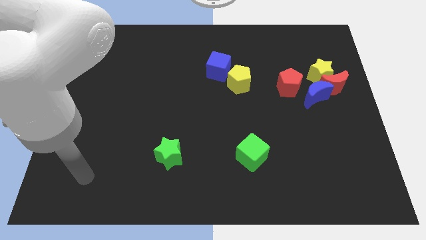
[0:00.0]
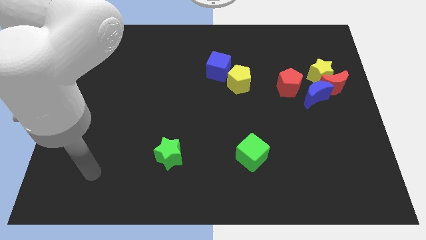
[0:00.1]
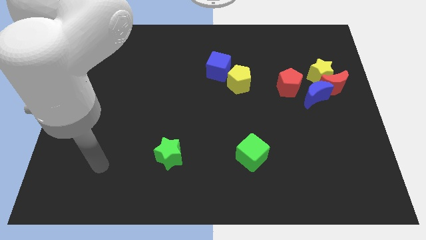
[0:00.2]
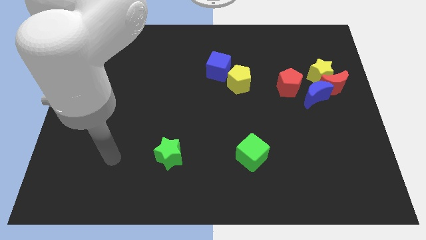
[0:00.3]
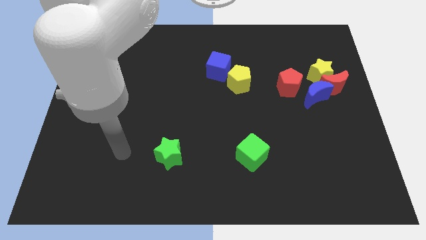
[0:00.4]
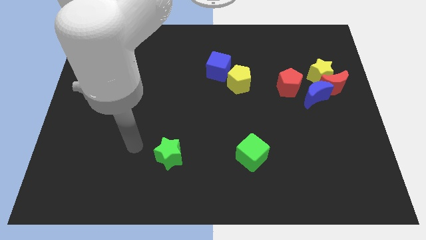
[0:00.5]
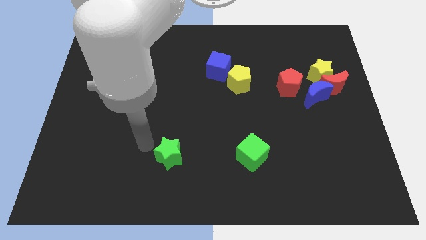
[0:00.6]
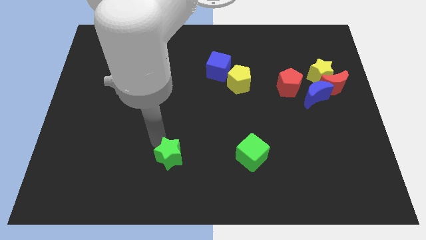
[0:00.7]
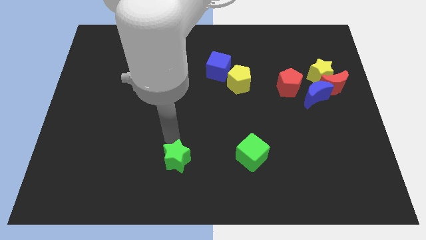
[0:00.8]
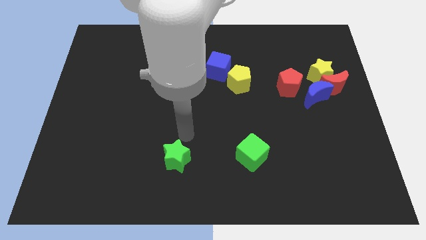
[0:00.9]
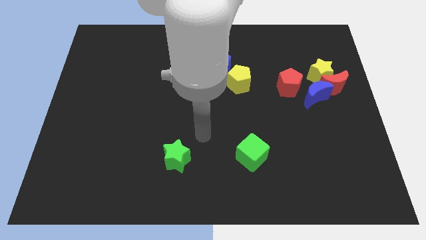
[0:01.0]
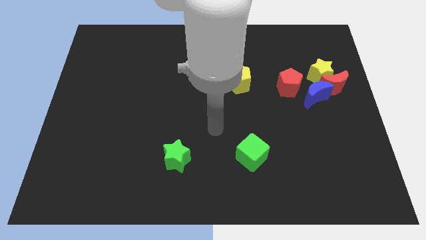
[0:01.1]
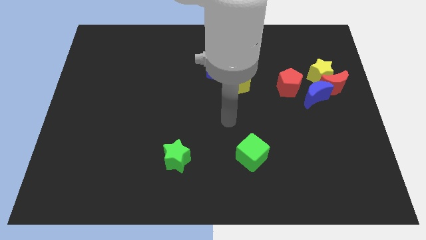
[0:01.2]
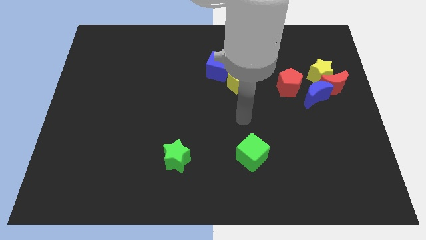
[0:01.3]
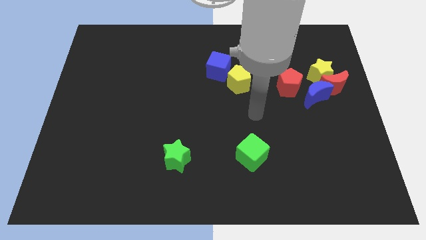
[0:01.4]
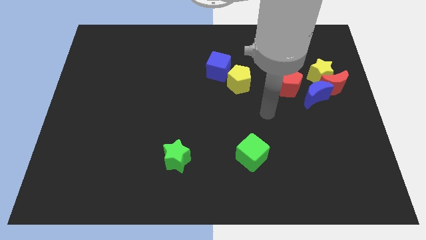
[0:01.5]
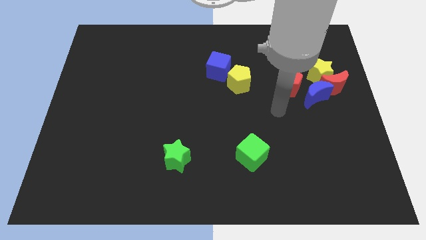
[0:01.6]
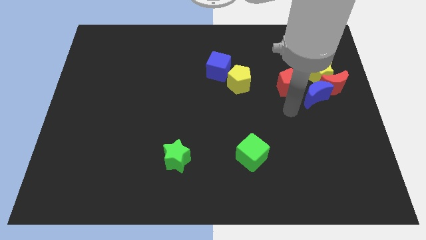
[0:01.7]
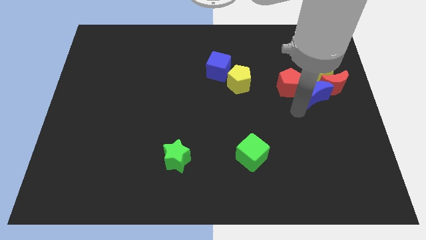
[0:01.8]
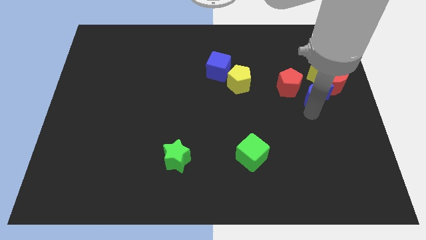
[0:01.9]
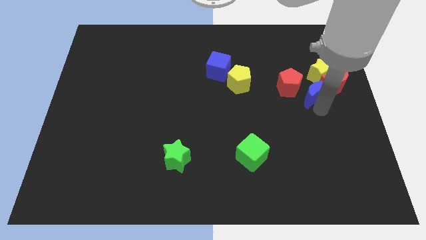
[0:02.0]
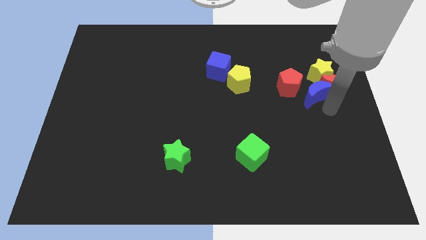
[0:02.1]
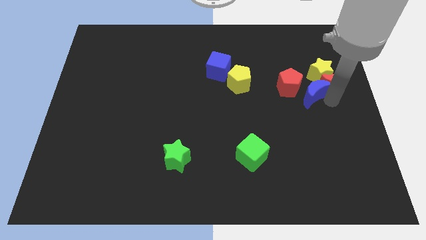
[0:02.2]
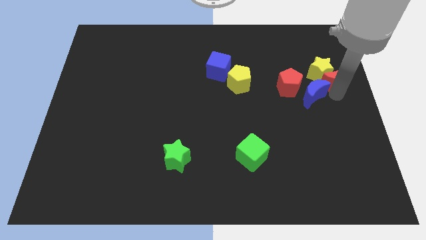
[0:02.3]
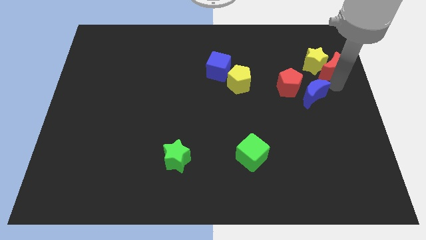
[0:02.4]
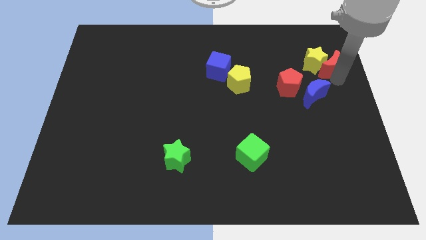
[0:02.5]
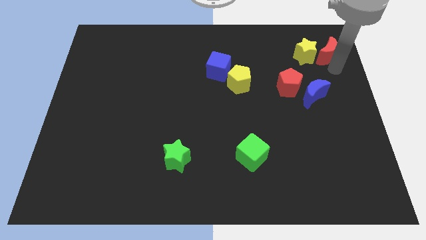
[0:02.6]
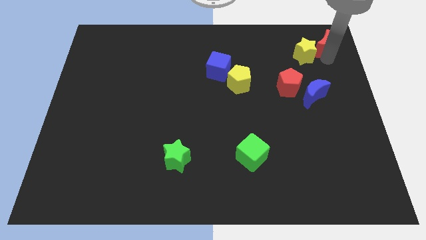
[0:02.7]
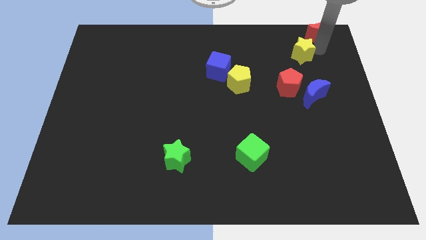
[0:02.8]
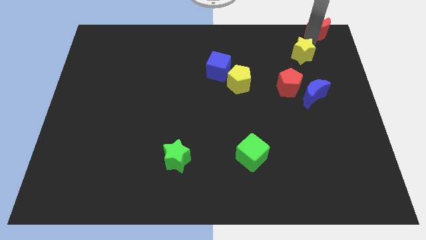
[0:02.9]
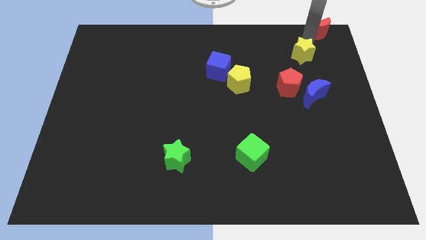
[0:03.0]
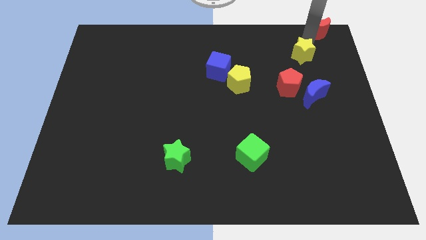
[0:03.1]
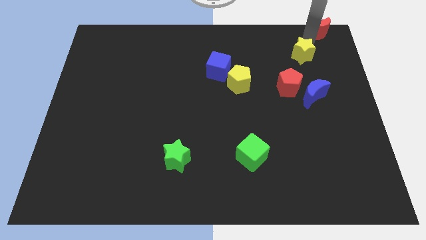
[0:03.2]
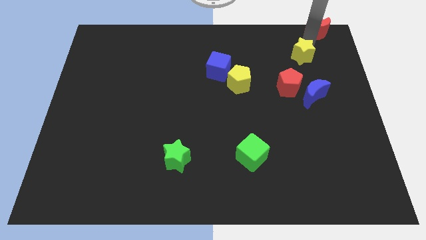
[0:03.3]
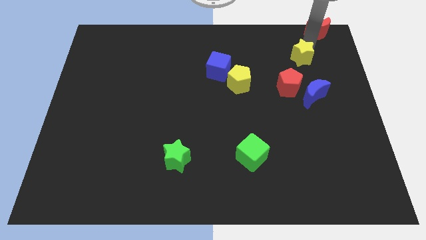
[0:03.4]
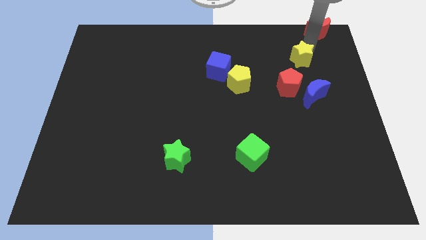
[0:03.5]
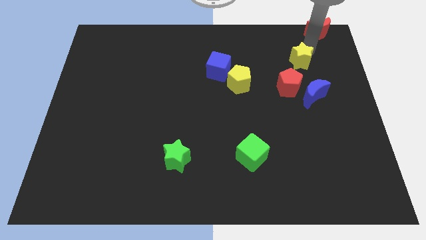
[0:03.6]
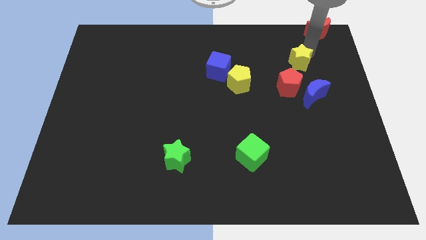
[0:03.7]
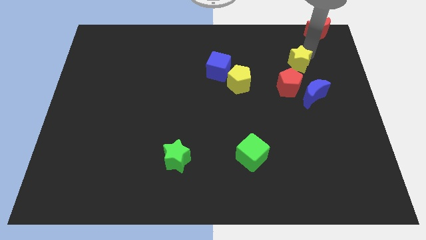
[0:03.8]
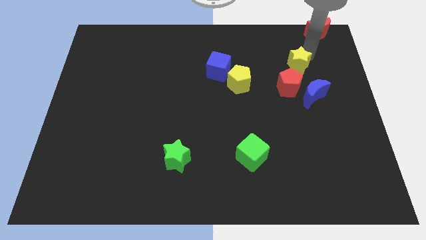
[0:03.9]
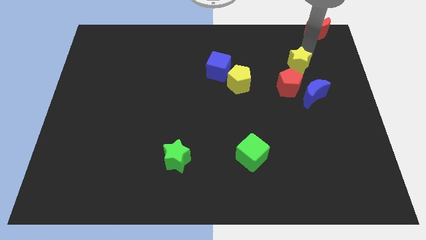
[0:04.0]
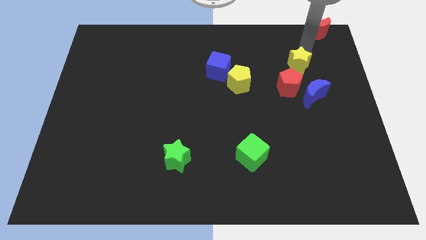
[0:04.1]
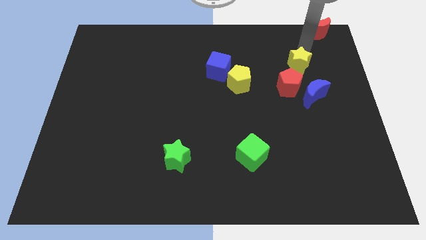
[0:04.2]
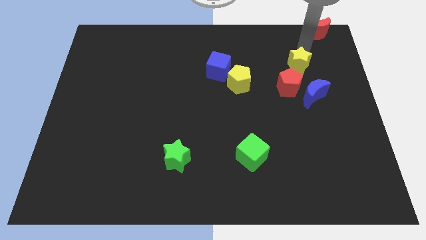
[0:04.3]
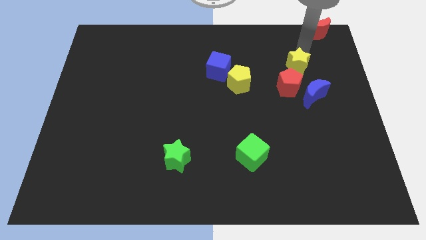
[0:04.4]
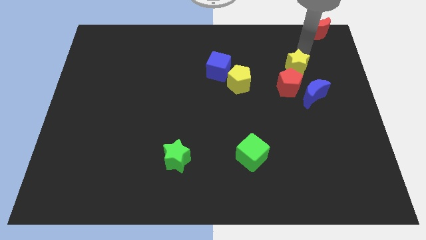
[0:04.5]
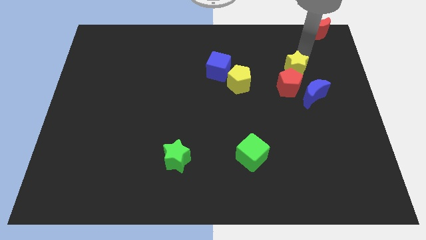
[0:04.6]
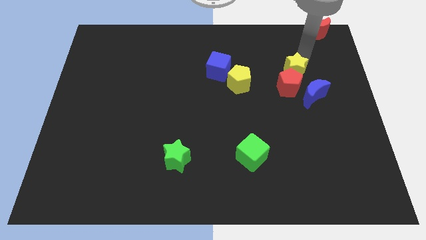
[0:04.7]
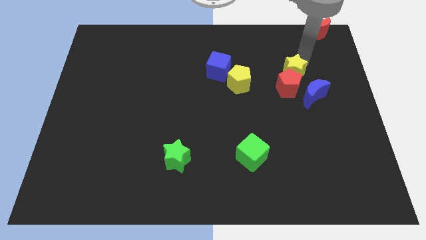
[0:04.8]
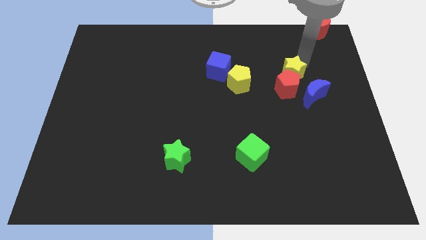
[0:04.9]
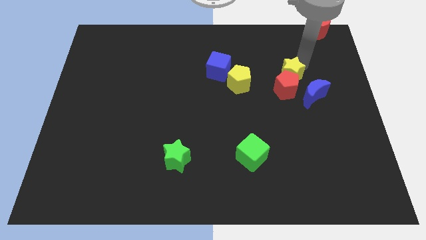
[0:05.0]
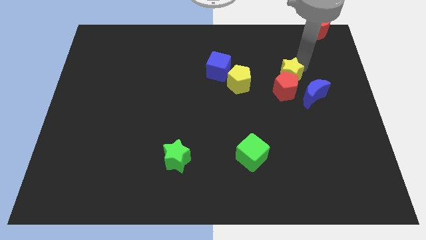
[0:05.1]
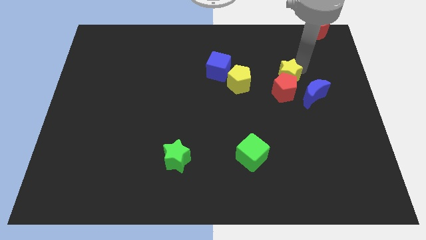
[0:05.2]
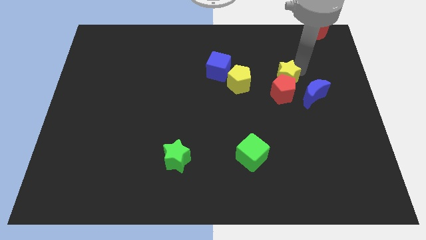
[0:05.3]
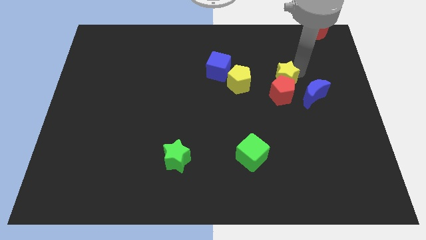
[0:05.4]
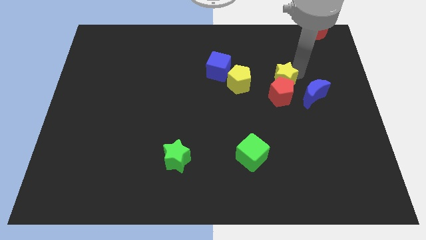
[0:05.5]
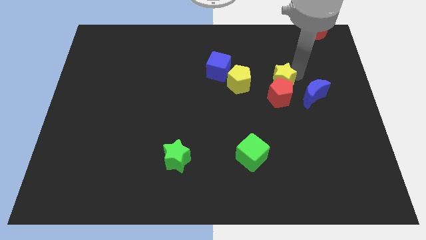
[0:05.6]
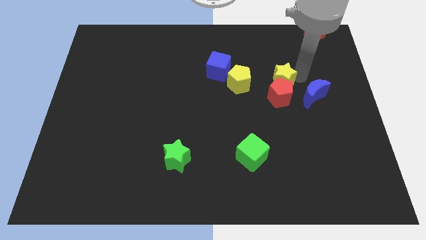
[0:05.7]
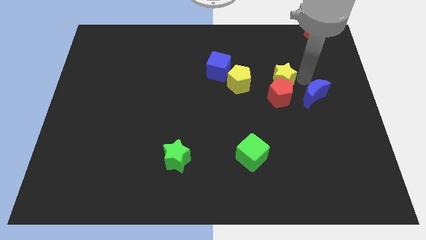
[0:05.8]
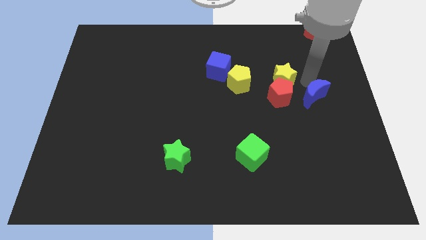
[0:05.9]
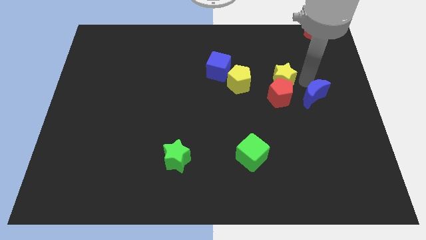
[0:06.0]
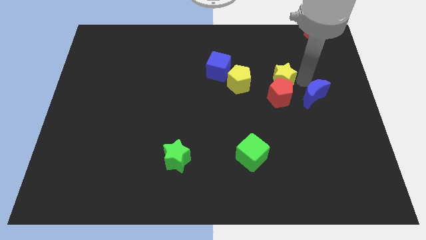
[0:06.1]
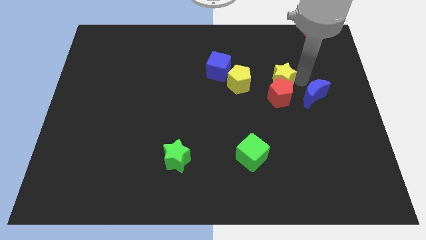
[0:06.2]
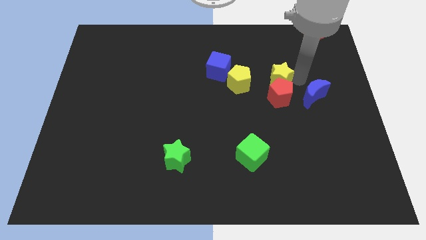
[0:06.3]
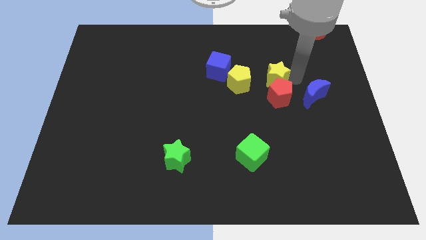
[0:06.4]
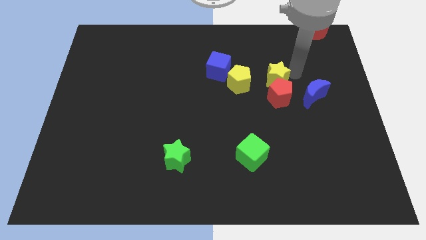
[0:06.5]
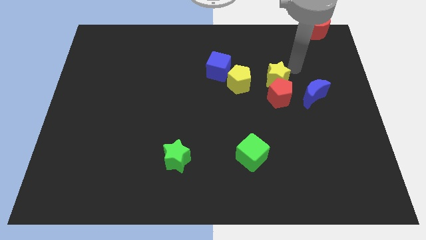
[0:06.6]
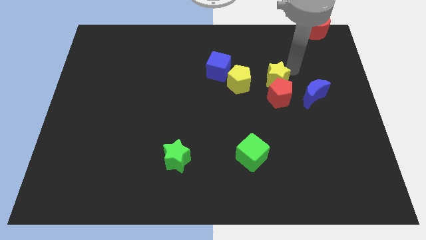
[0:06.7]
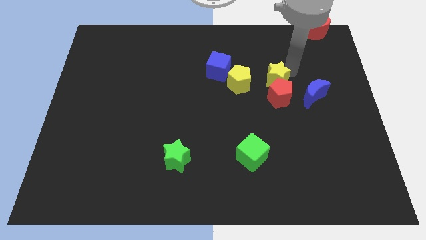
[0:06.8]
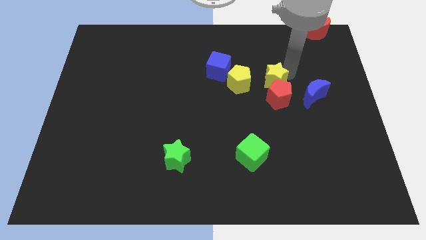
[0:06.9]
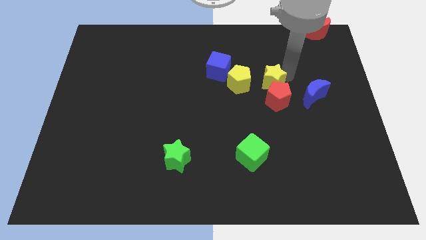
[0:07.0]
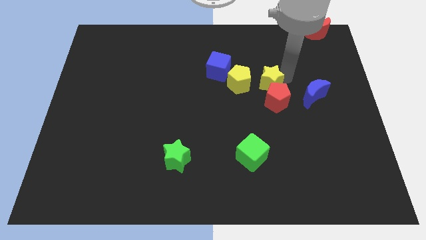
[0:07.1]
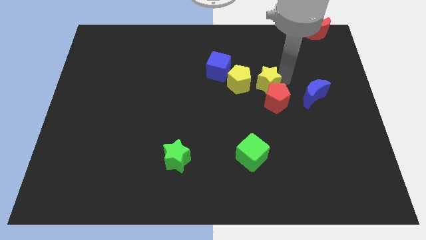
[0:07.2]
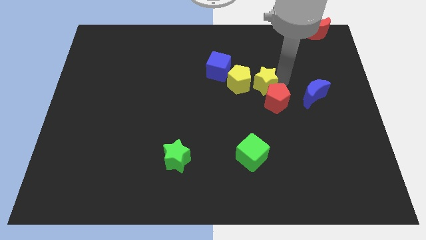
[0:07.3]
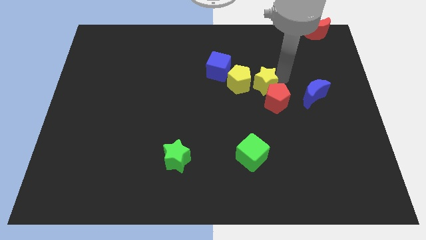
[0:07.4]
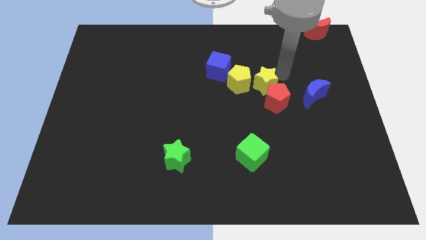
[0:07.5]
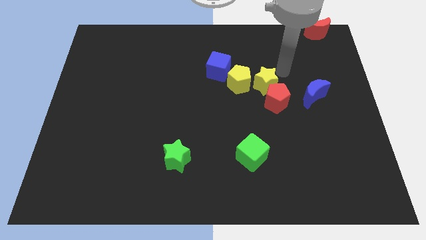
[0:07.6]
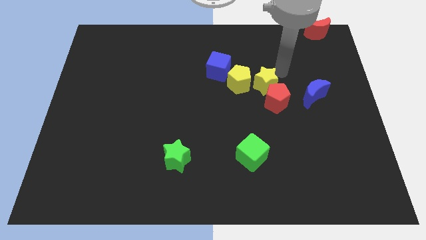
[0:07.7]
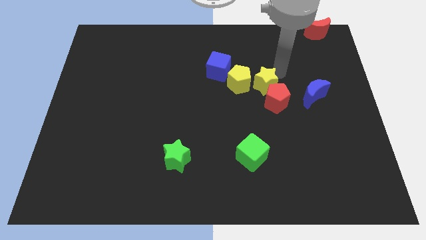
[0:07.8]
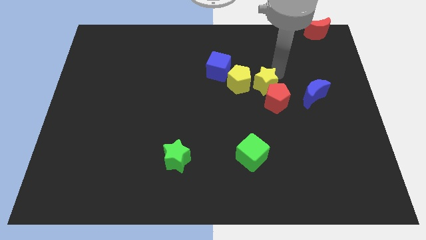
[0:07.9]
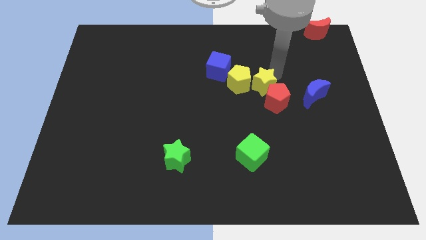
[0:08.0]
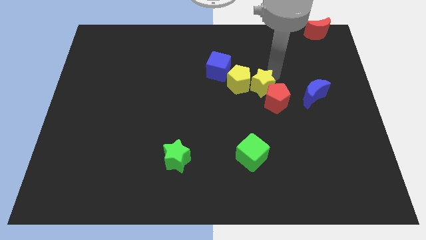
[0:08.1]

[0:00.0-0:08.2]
put the yellow star diagonally down and to the right of the blue cube
